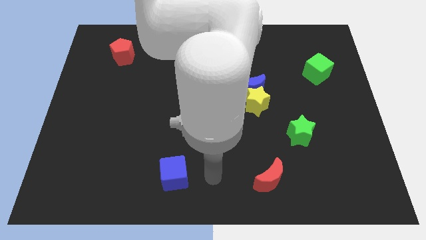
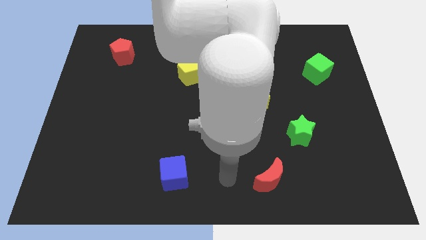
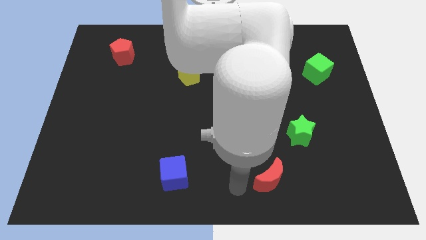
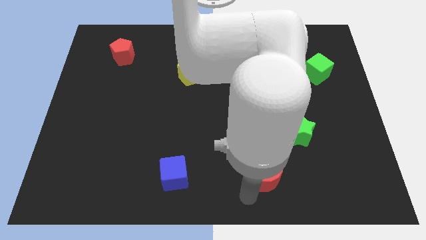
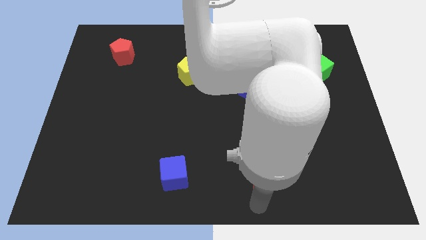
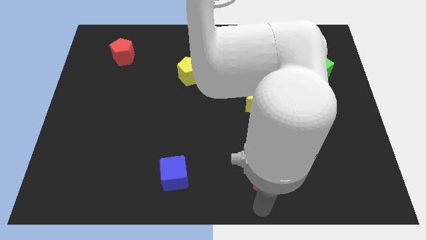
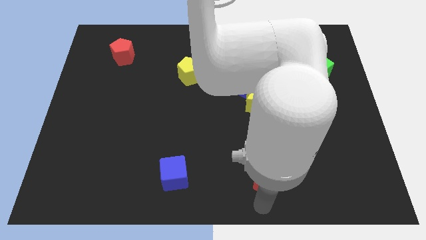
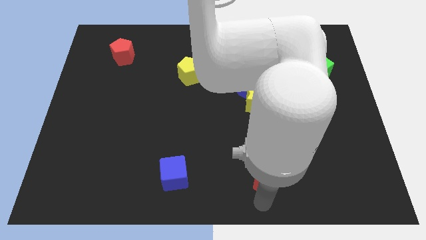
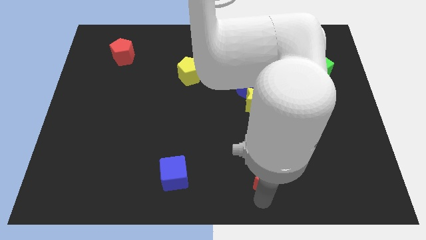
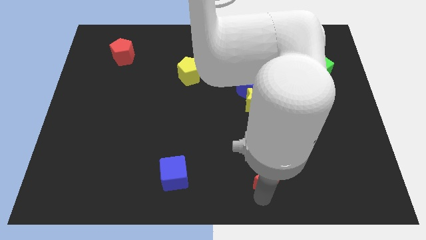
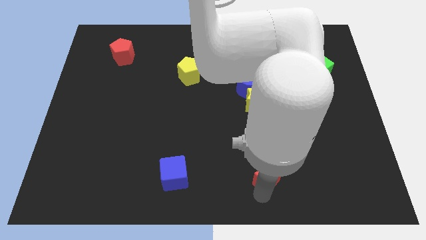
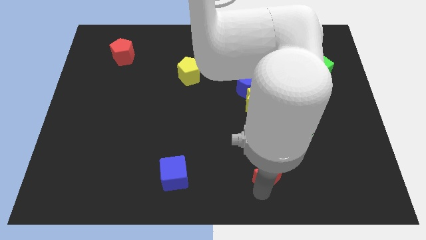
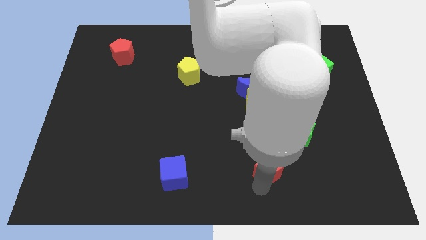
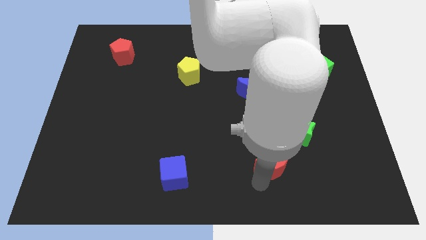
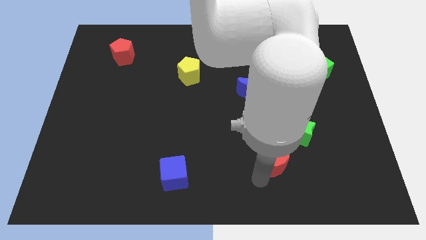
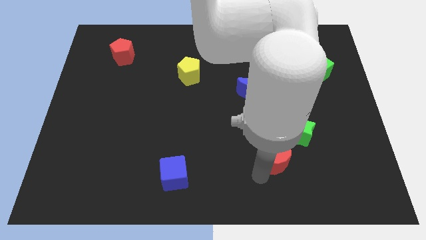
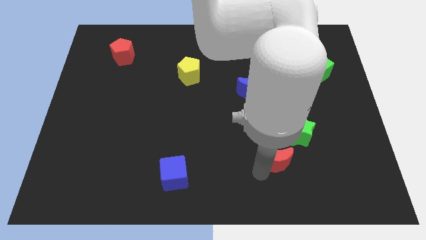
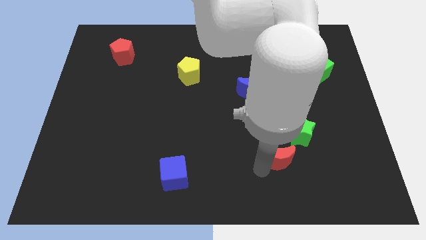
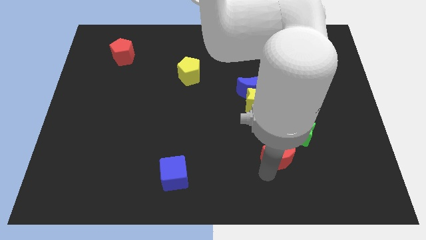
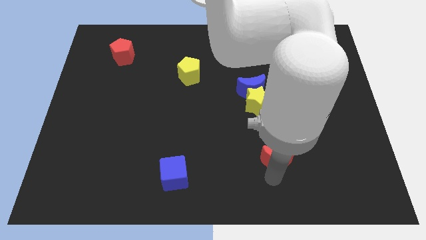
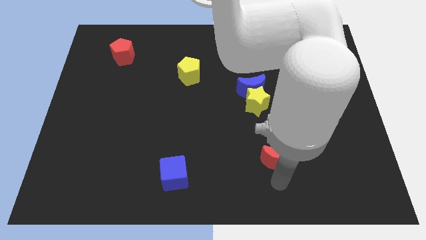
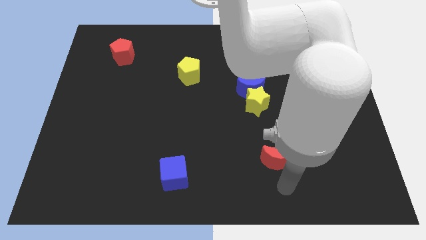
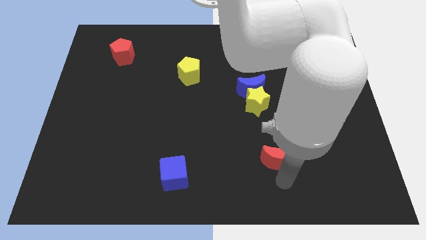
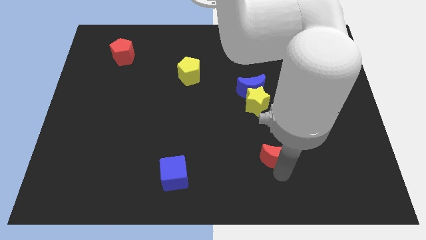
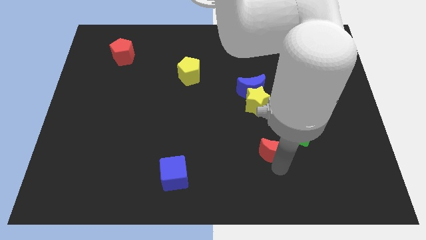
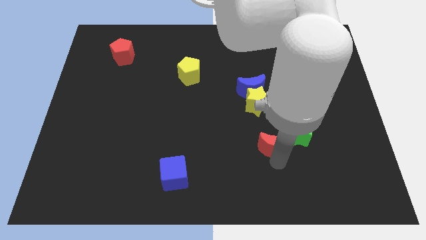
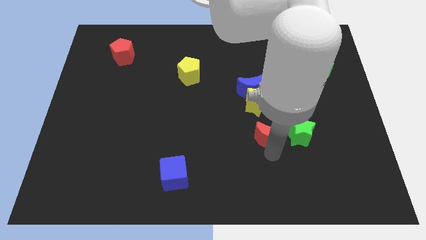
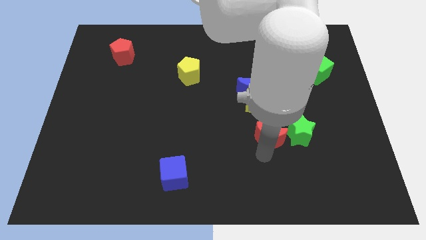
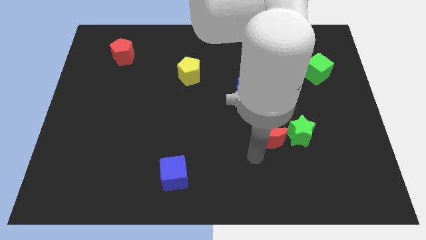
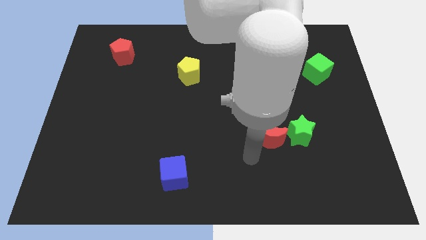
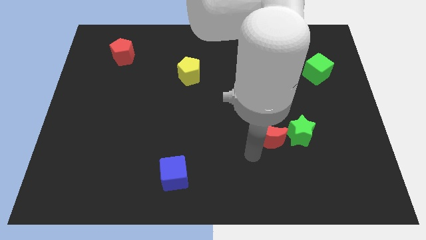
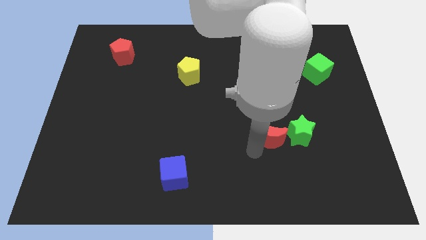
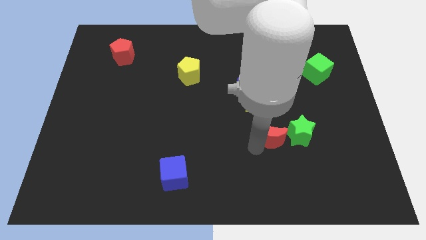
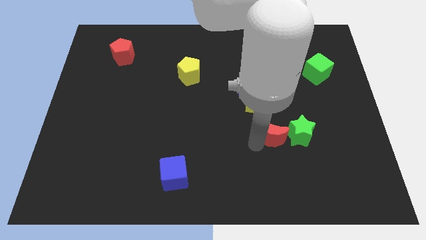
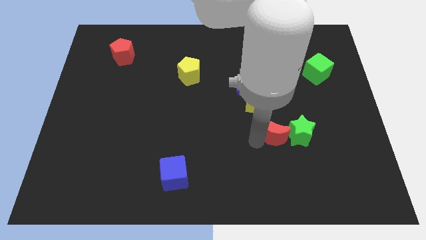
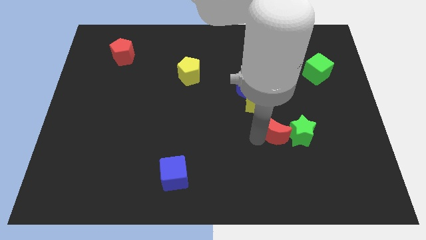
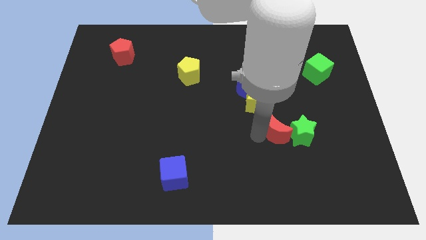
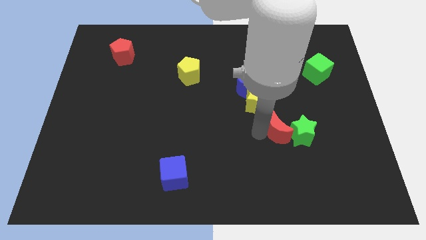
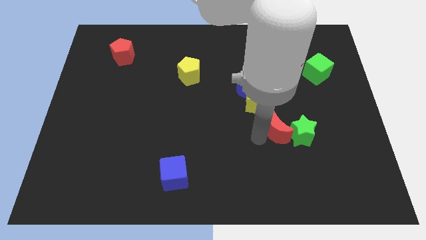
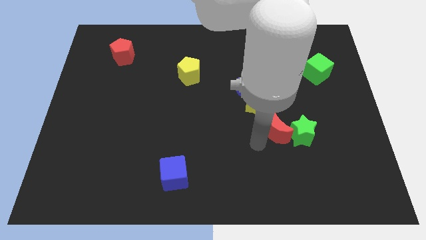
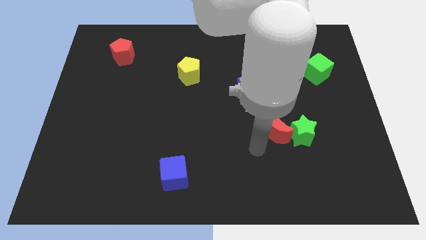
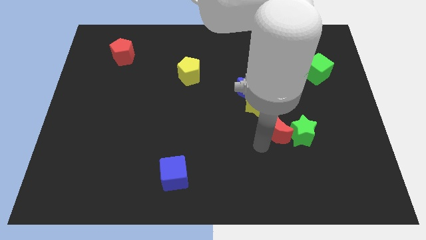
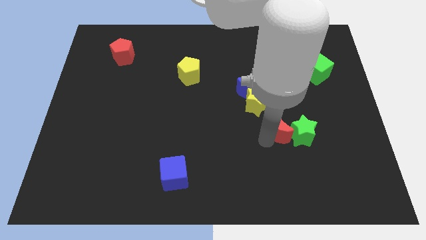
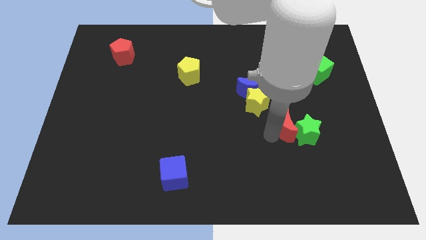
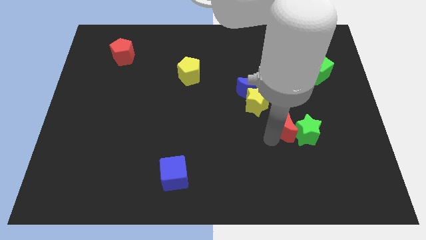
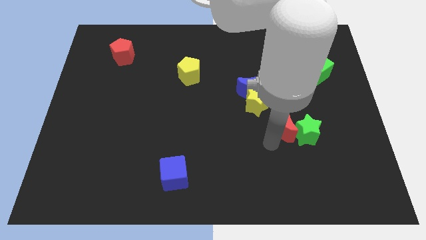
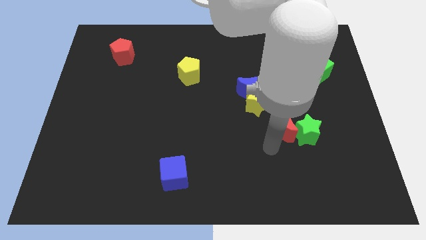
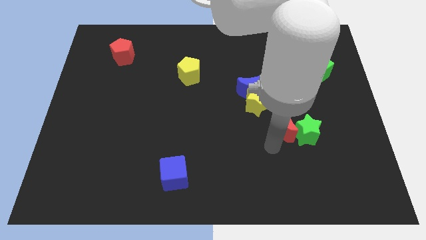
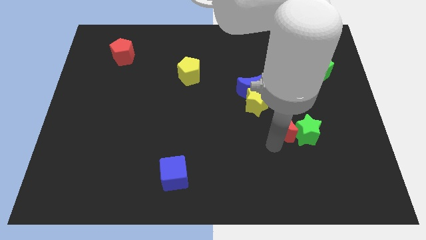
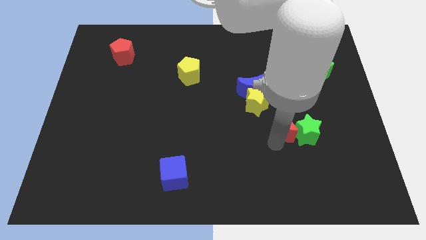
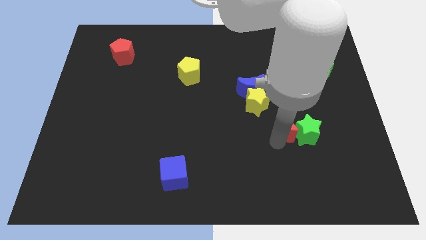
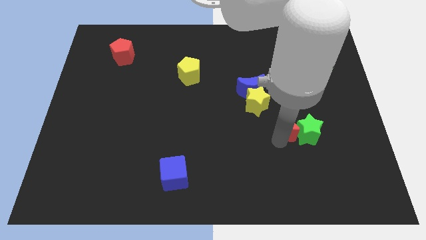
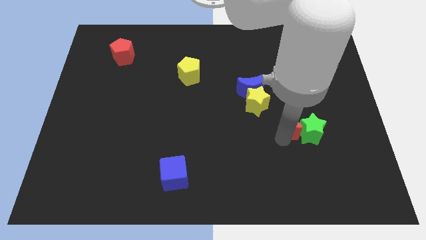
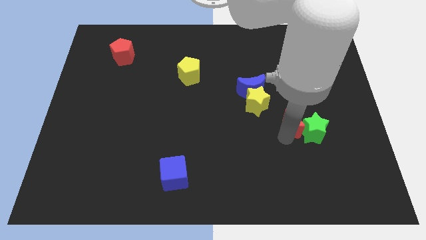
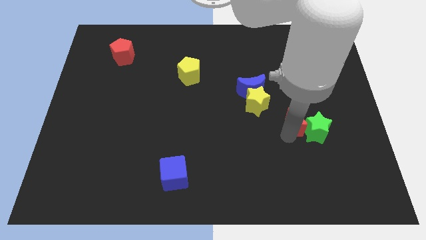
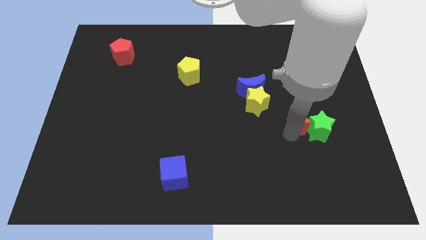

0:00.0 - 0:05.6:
push the red moon to the right of the yellow star

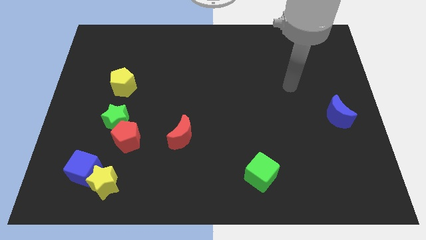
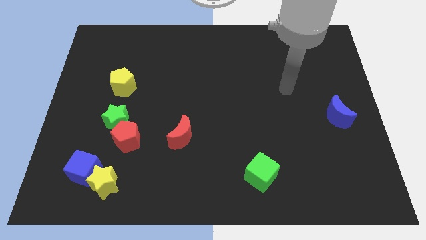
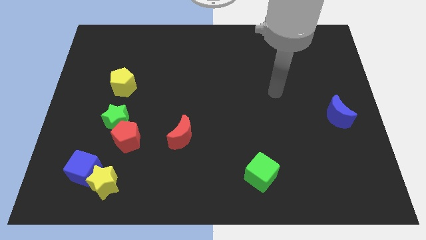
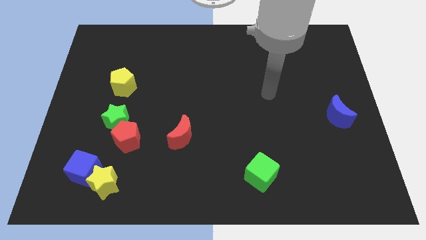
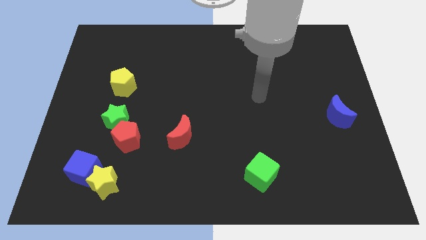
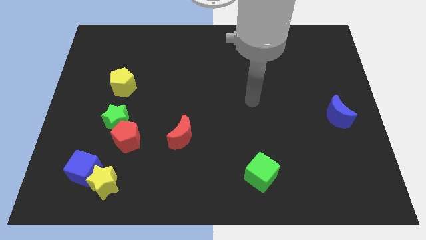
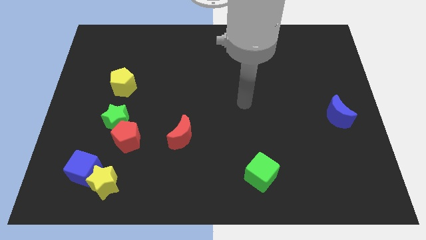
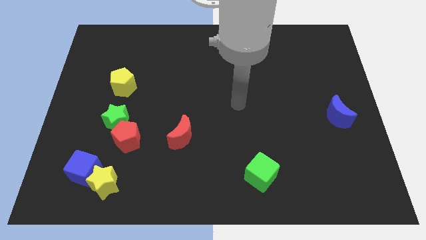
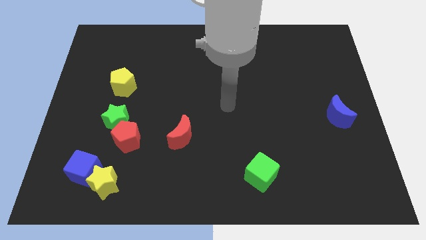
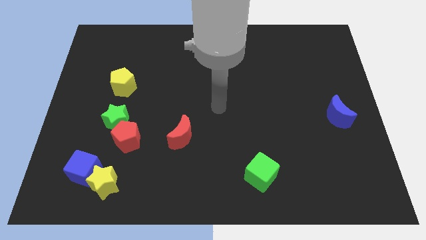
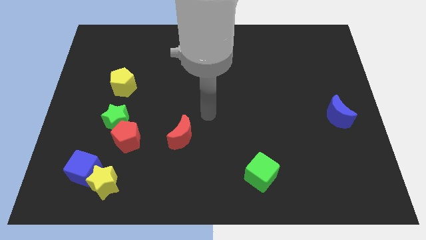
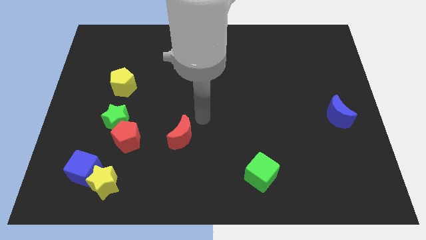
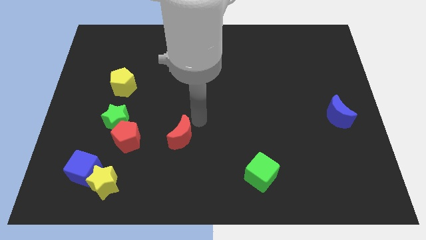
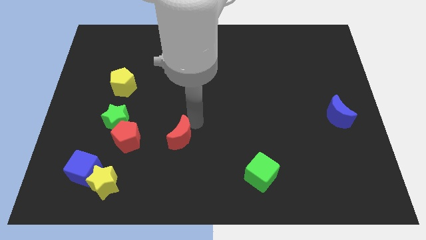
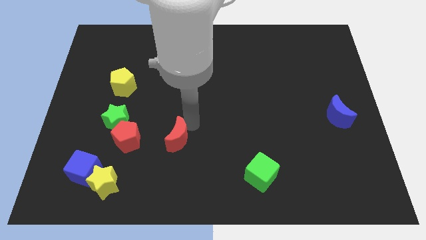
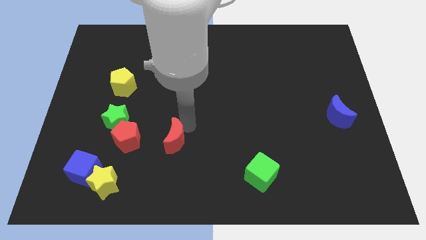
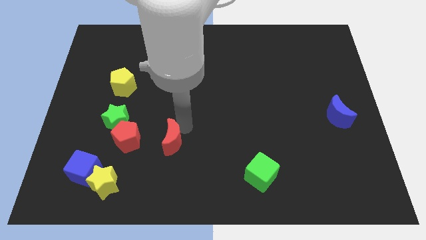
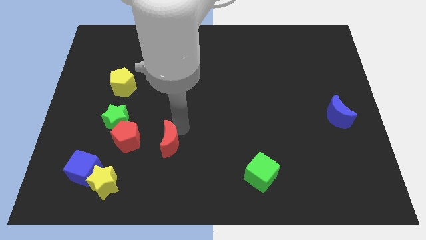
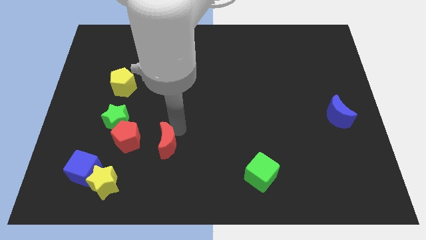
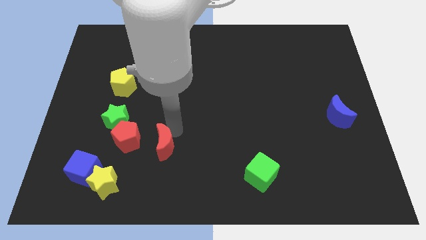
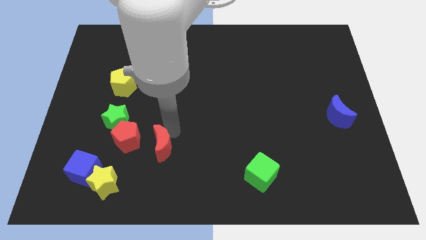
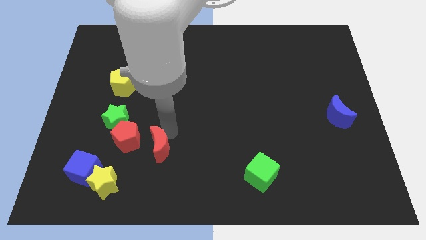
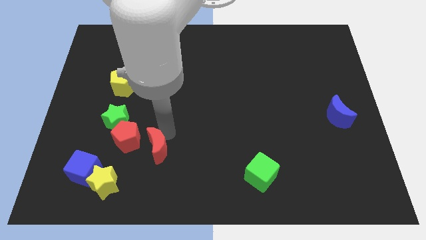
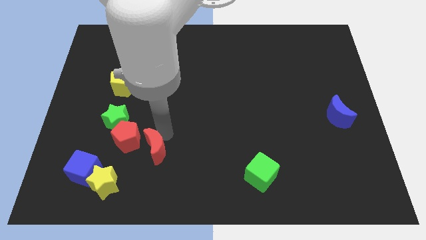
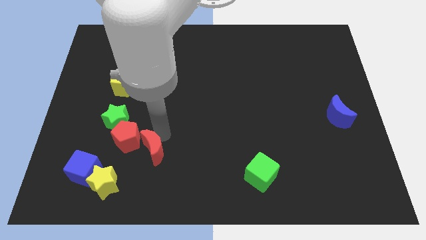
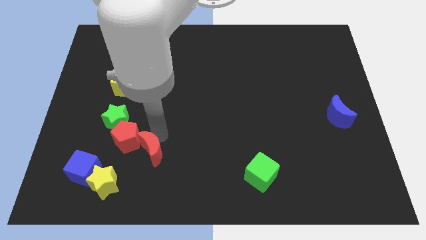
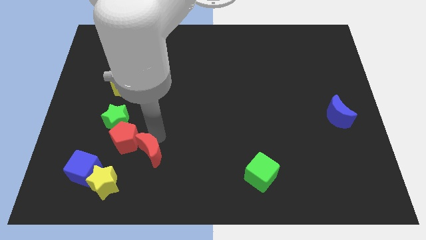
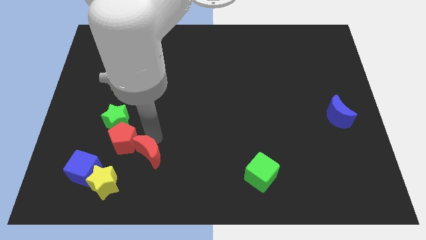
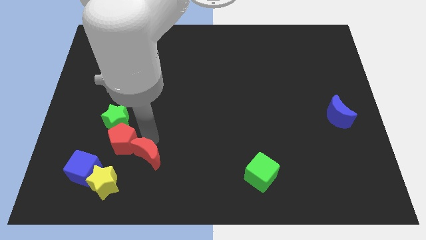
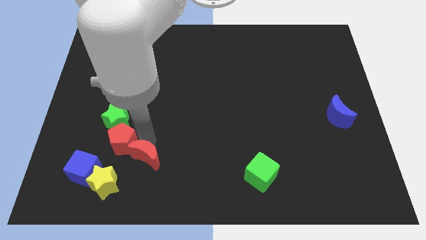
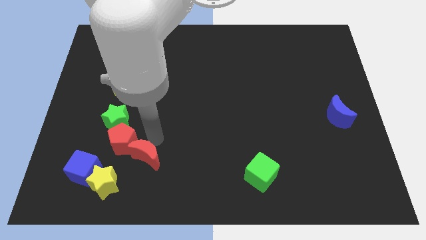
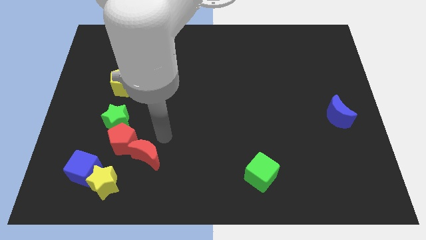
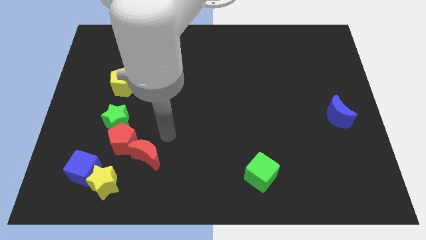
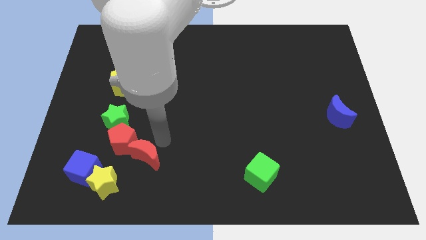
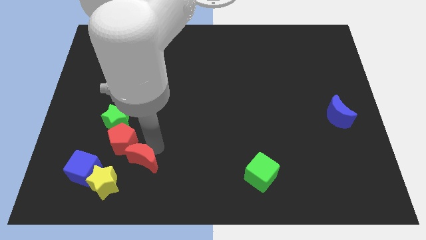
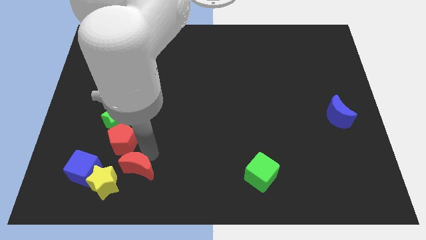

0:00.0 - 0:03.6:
move the red moon to the bottom side of the red pentagon
